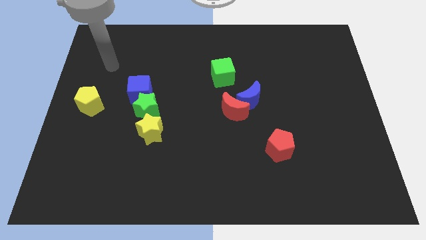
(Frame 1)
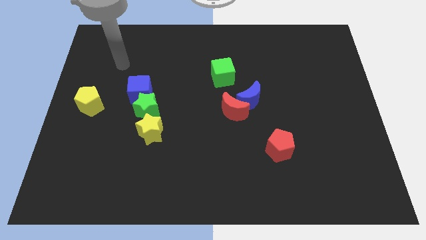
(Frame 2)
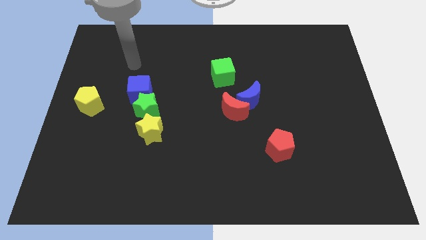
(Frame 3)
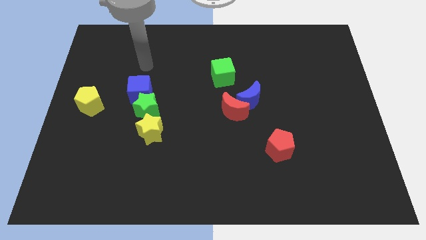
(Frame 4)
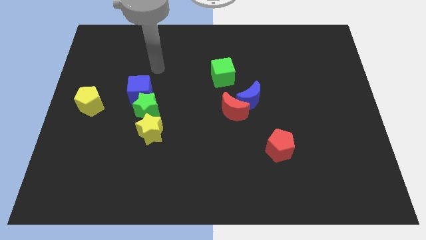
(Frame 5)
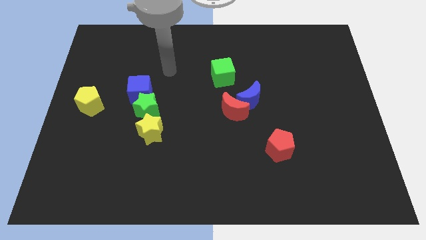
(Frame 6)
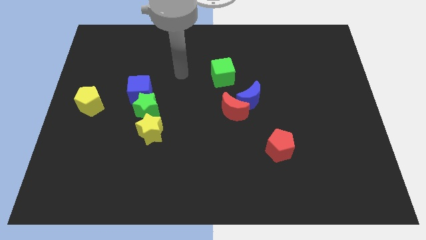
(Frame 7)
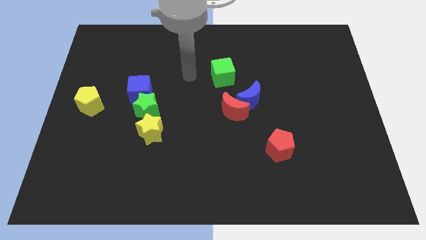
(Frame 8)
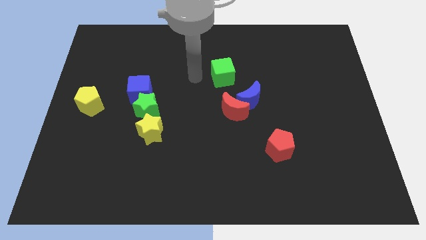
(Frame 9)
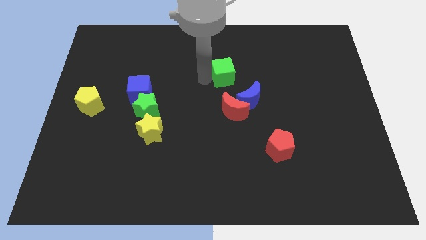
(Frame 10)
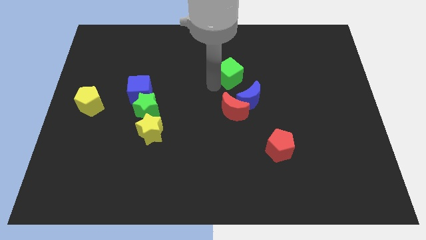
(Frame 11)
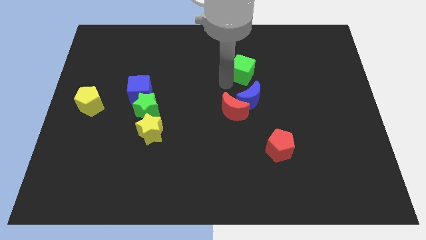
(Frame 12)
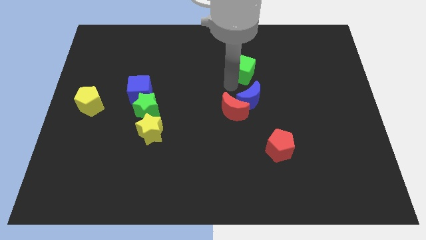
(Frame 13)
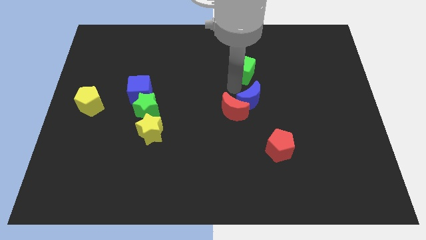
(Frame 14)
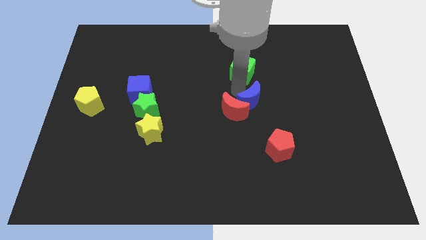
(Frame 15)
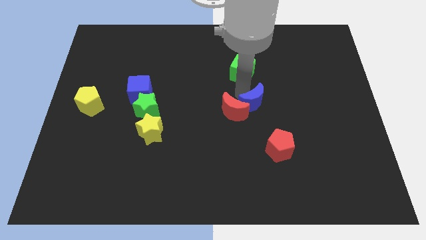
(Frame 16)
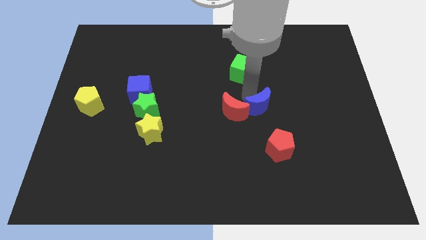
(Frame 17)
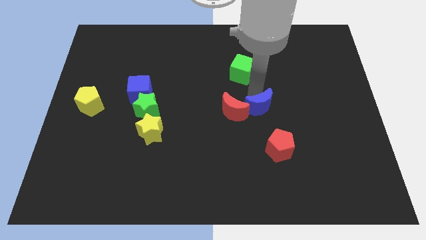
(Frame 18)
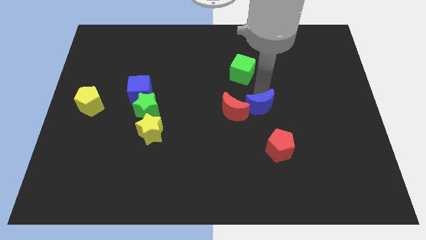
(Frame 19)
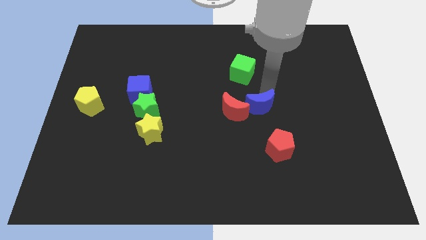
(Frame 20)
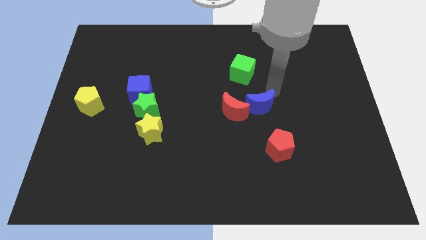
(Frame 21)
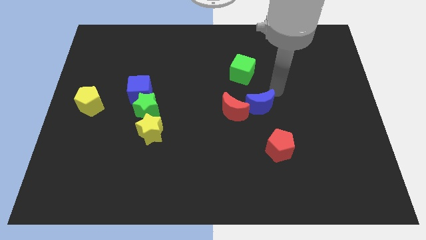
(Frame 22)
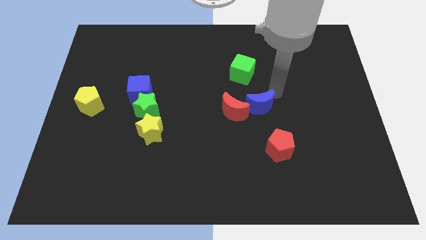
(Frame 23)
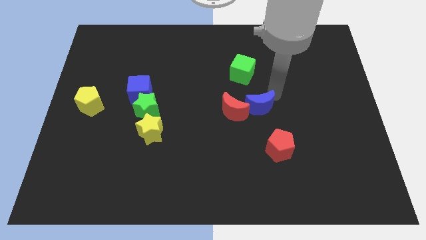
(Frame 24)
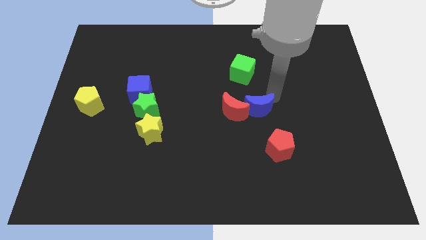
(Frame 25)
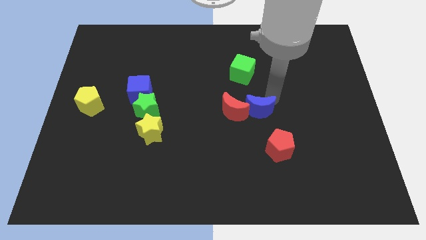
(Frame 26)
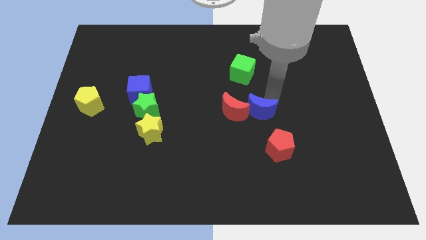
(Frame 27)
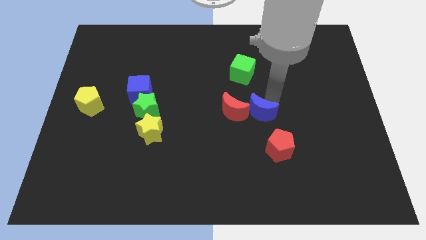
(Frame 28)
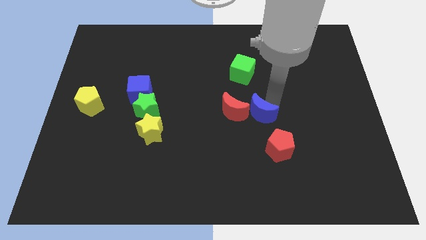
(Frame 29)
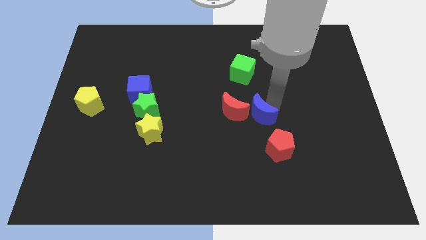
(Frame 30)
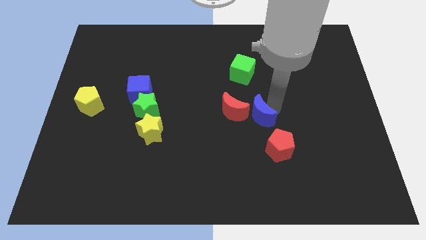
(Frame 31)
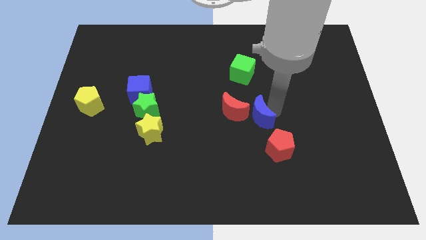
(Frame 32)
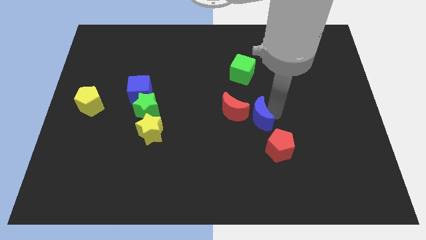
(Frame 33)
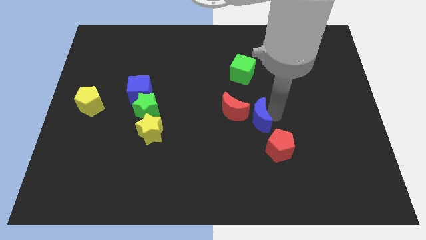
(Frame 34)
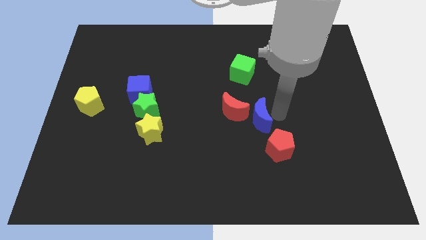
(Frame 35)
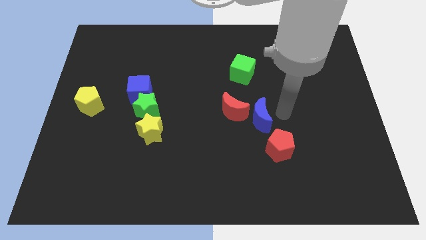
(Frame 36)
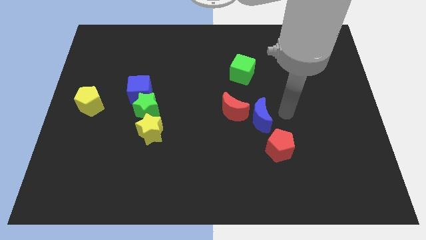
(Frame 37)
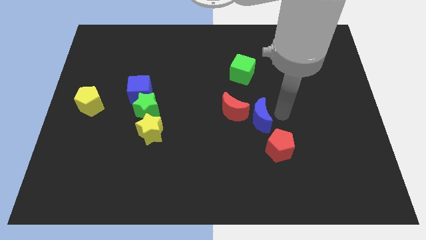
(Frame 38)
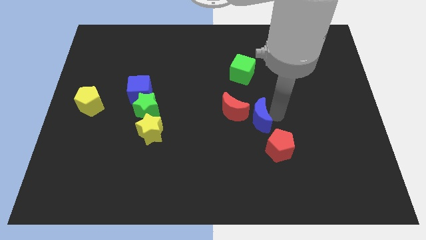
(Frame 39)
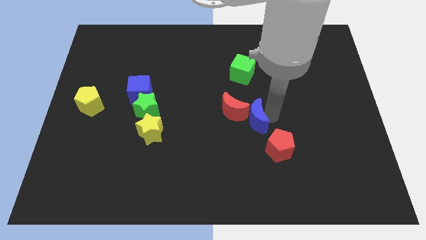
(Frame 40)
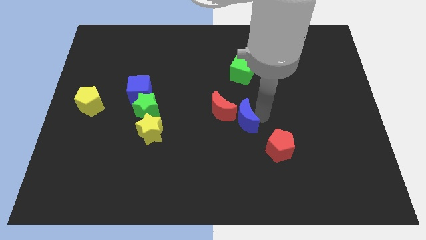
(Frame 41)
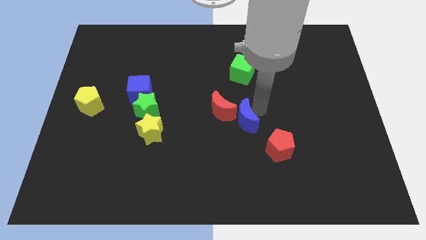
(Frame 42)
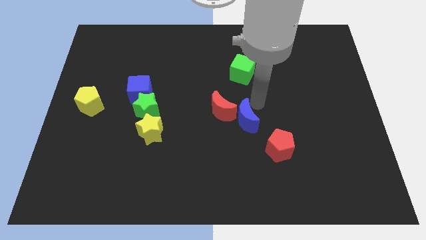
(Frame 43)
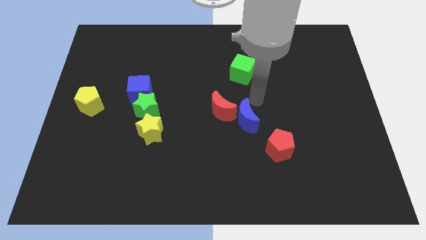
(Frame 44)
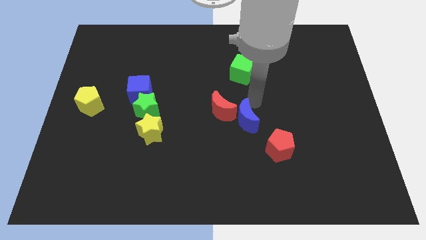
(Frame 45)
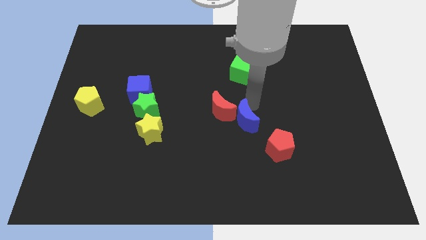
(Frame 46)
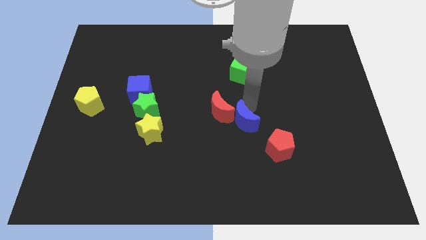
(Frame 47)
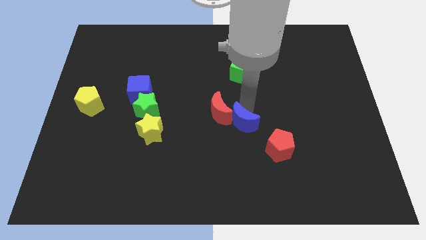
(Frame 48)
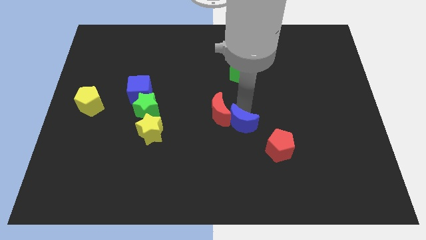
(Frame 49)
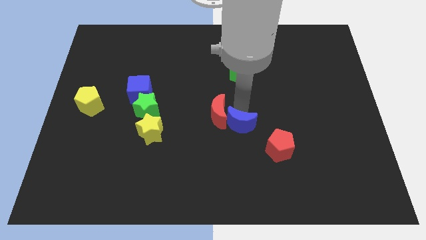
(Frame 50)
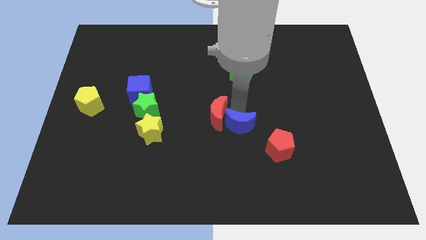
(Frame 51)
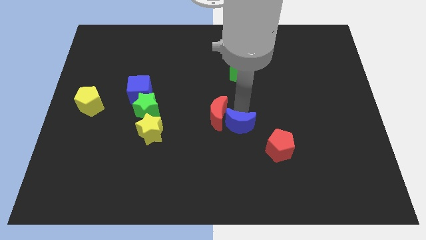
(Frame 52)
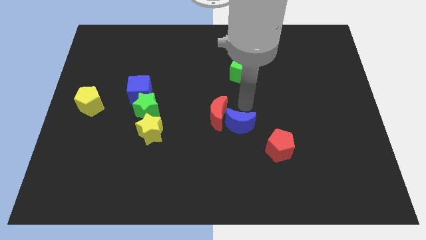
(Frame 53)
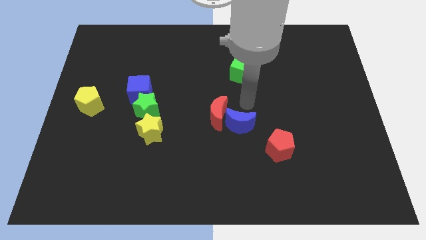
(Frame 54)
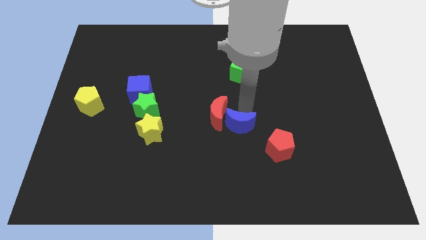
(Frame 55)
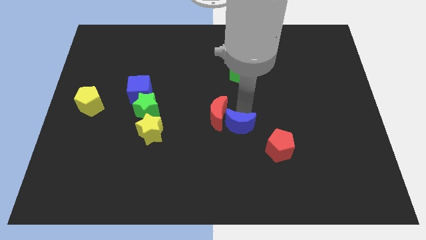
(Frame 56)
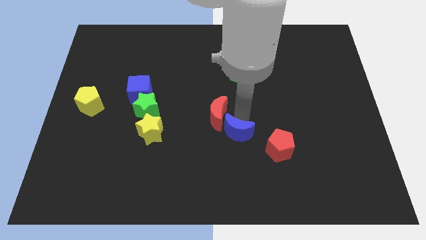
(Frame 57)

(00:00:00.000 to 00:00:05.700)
move the blue moon left of the red pentagon

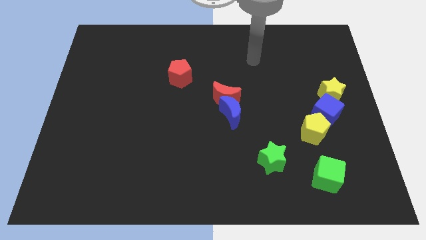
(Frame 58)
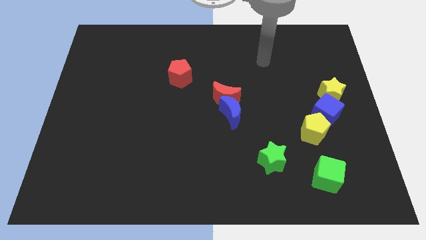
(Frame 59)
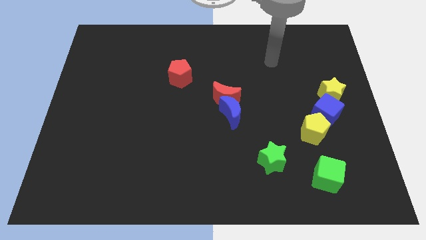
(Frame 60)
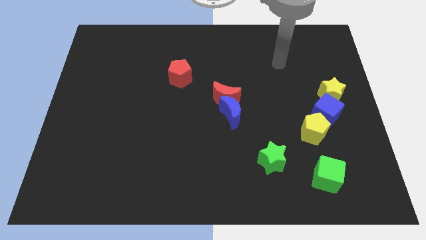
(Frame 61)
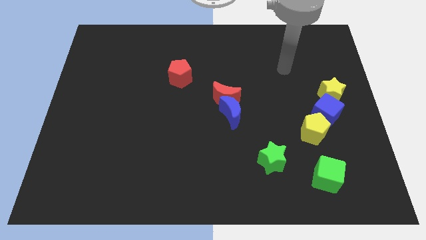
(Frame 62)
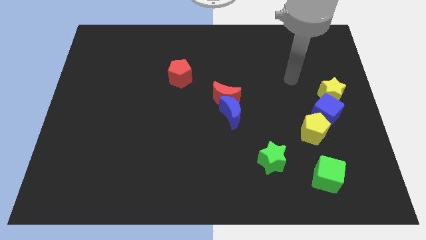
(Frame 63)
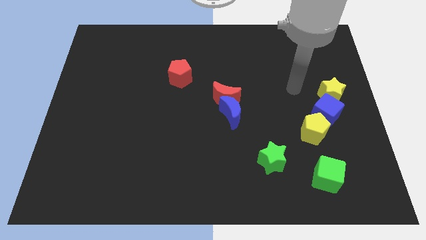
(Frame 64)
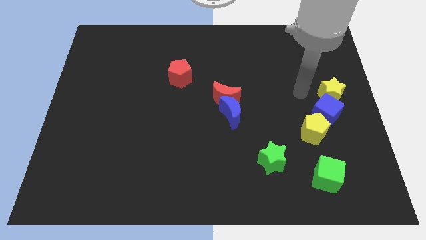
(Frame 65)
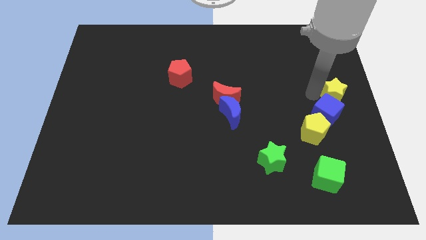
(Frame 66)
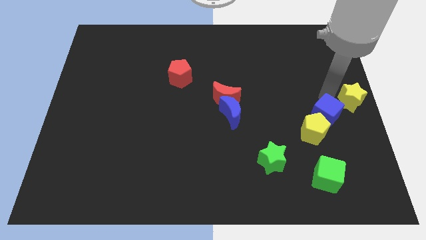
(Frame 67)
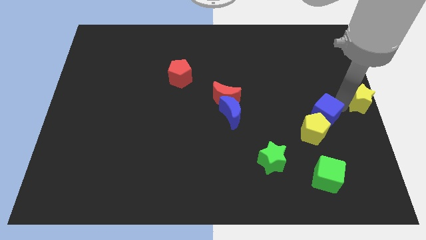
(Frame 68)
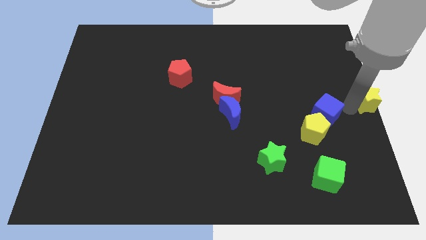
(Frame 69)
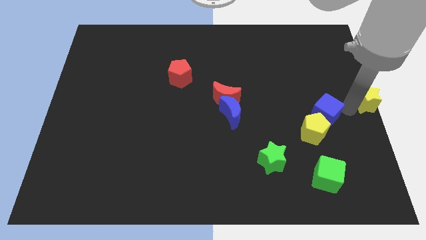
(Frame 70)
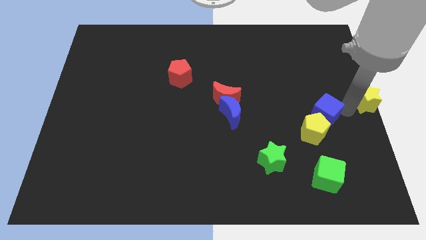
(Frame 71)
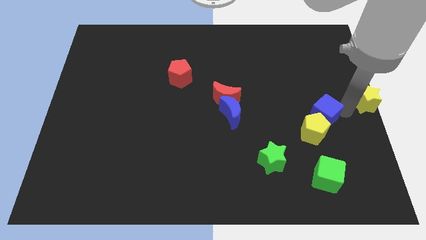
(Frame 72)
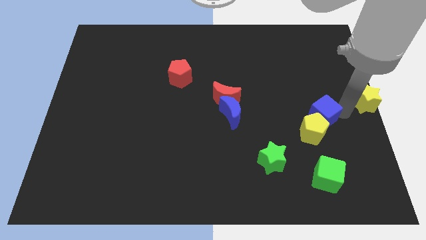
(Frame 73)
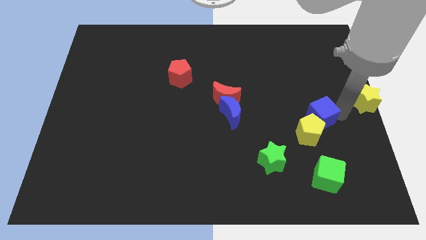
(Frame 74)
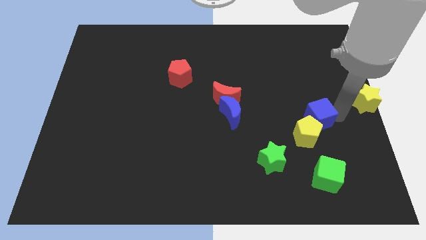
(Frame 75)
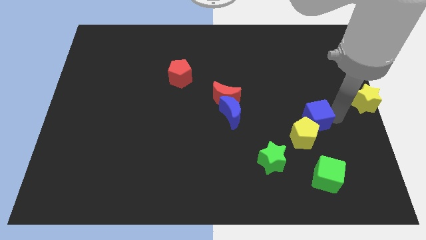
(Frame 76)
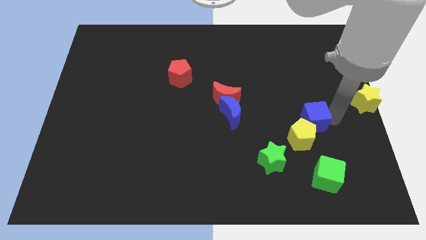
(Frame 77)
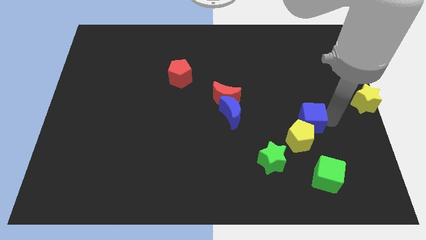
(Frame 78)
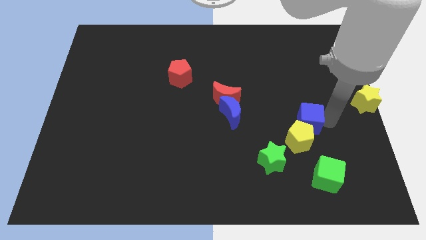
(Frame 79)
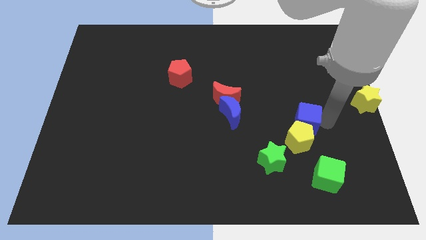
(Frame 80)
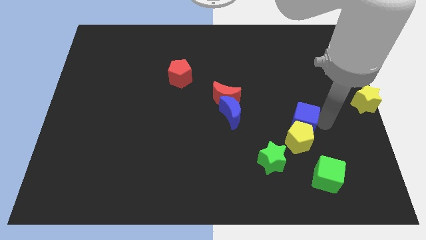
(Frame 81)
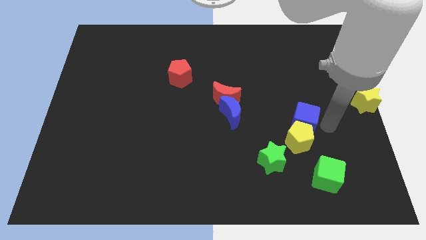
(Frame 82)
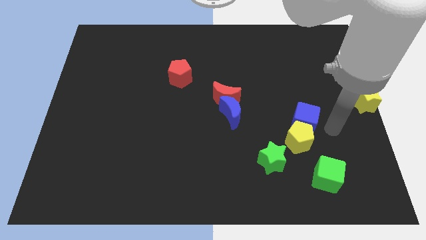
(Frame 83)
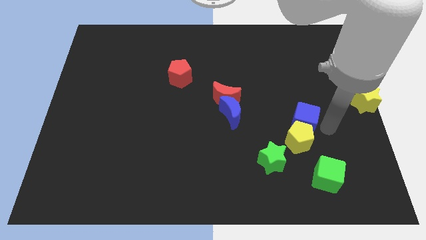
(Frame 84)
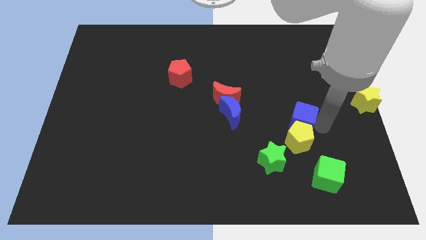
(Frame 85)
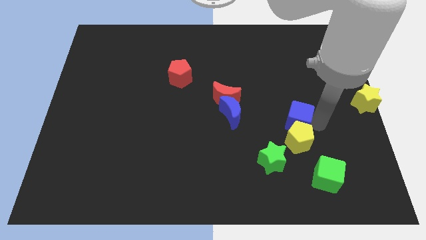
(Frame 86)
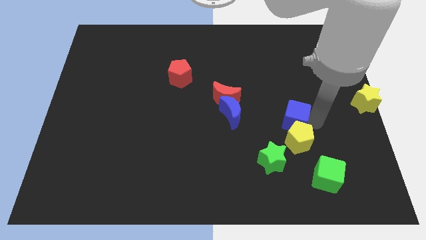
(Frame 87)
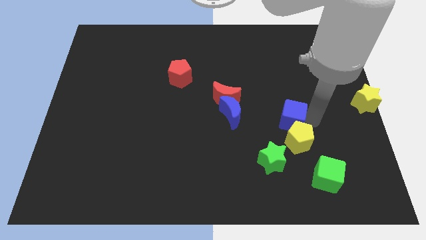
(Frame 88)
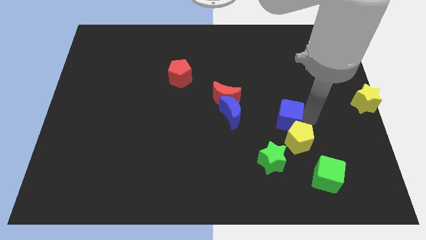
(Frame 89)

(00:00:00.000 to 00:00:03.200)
push the blue cube to the top of the green star
